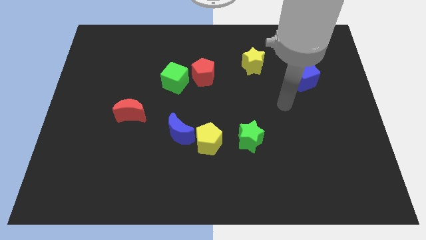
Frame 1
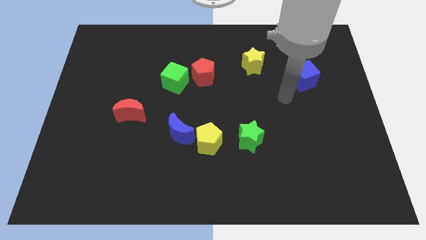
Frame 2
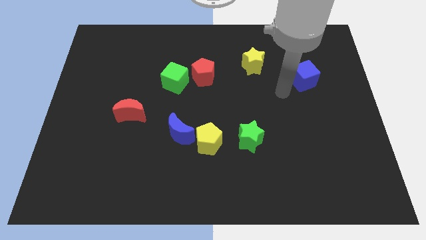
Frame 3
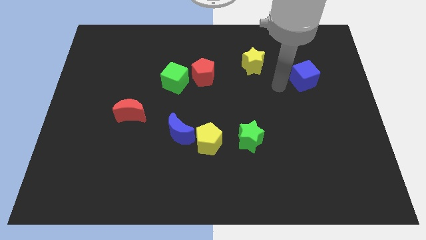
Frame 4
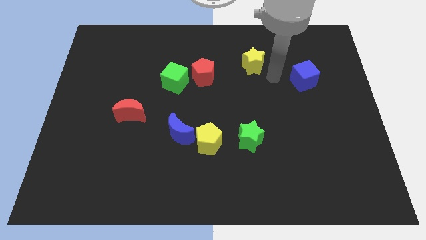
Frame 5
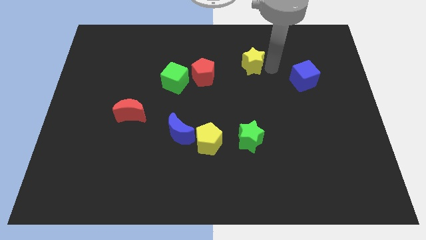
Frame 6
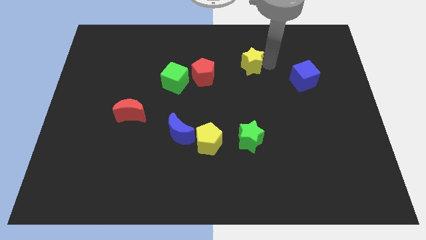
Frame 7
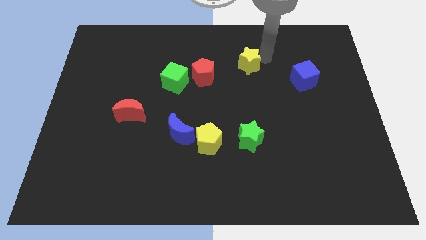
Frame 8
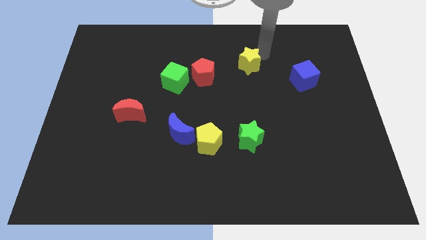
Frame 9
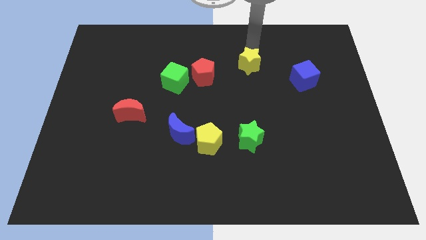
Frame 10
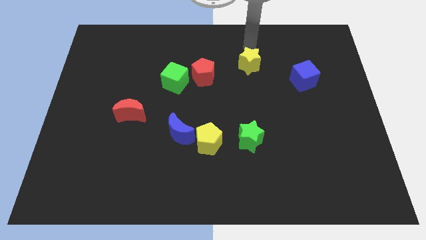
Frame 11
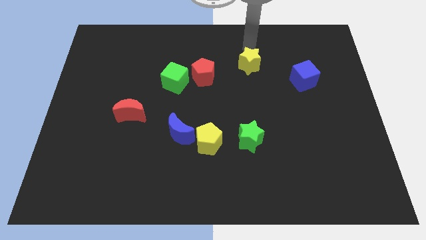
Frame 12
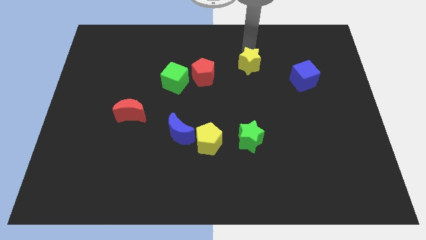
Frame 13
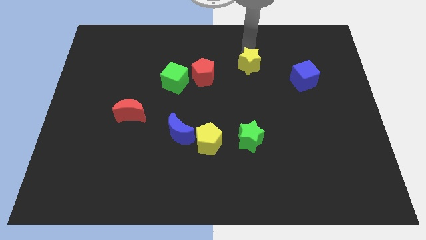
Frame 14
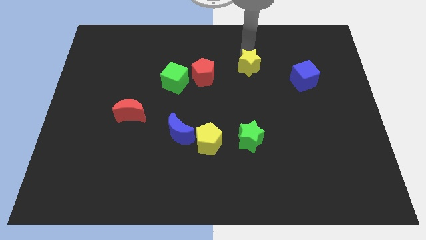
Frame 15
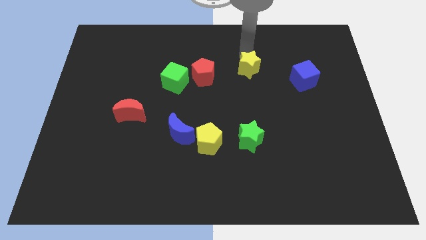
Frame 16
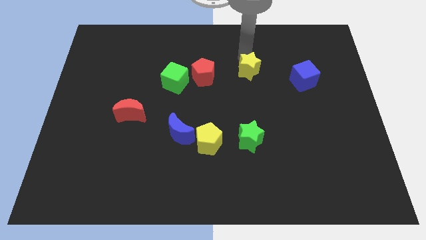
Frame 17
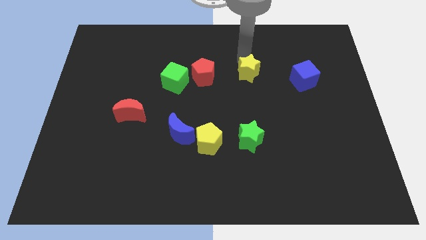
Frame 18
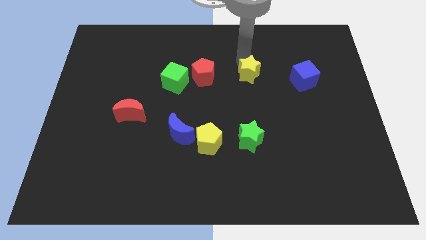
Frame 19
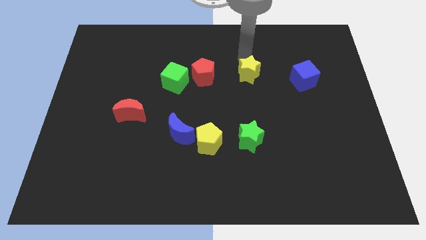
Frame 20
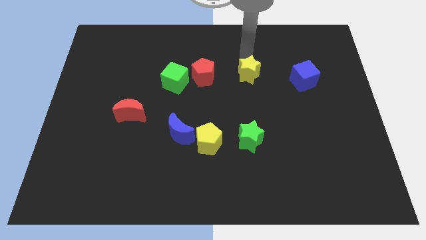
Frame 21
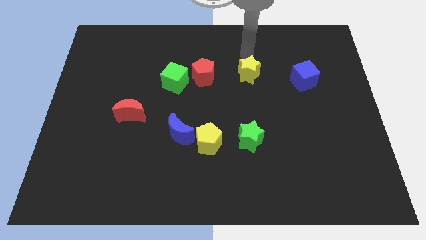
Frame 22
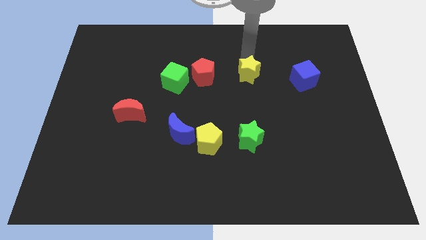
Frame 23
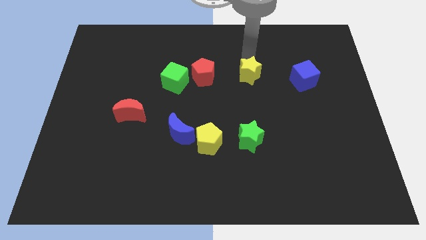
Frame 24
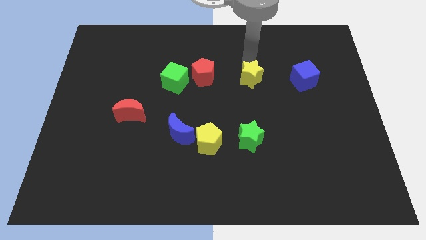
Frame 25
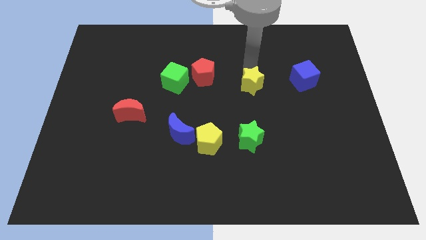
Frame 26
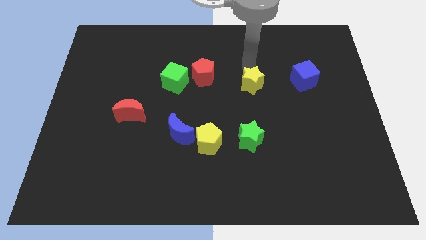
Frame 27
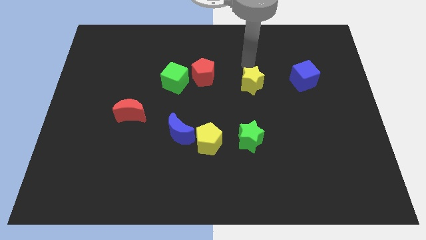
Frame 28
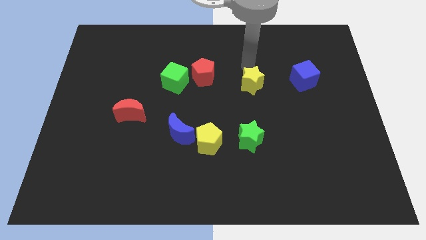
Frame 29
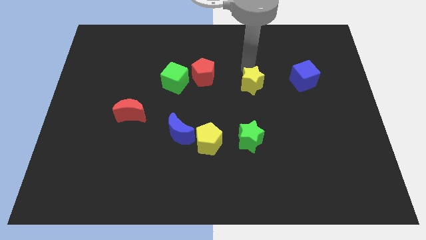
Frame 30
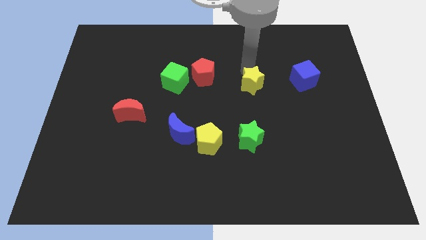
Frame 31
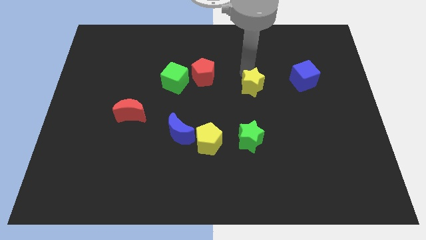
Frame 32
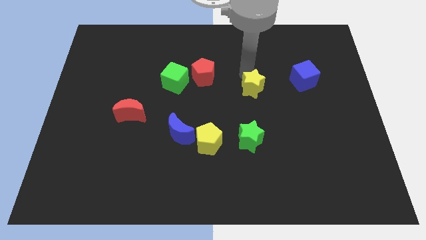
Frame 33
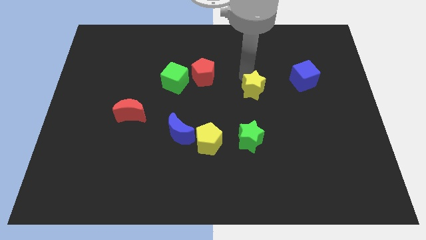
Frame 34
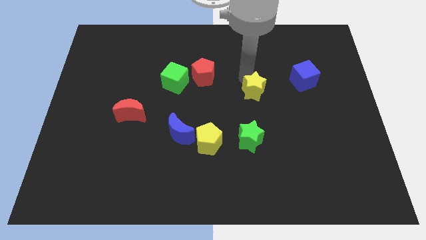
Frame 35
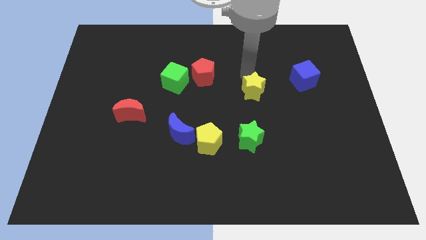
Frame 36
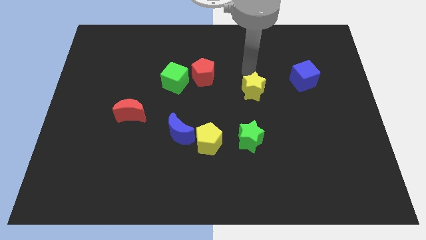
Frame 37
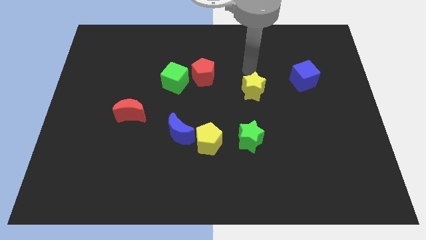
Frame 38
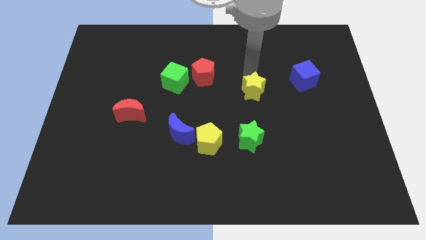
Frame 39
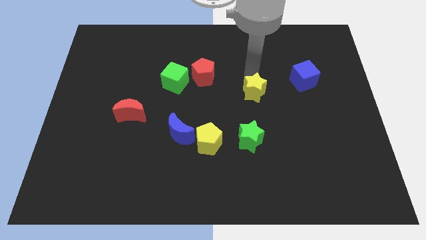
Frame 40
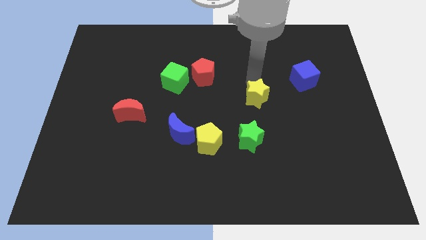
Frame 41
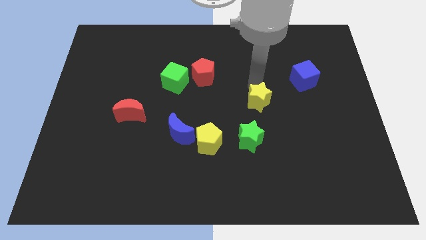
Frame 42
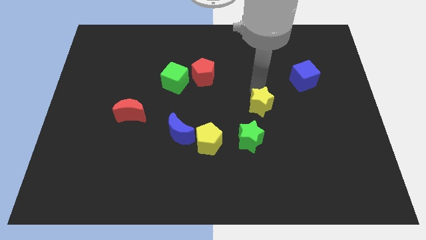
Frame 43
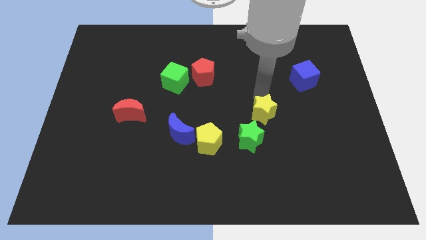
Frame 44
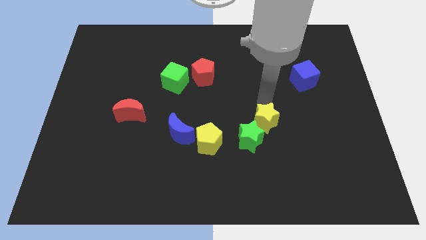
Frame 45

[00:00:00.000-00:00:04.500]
slide the yellow star close to the green star

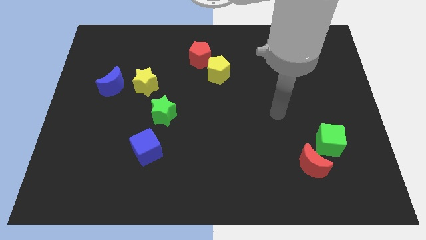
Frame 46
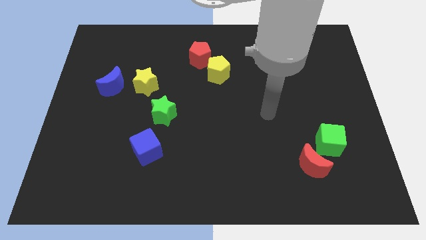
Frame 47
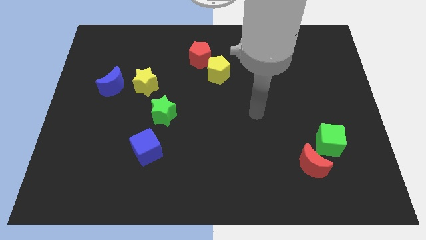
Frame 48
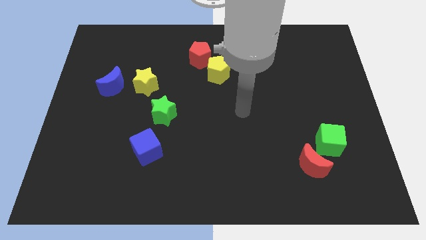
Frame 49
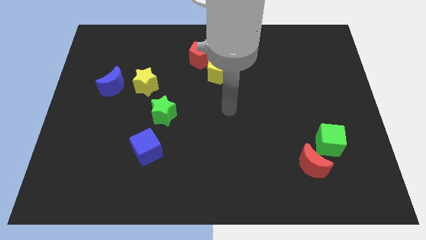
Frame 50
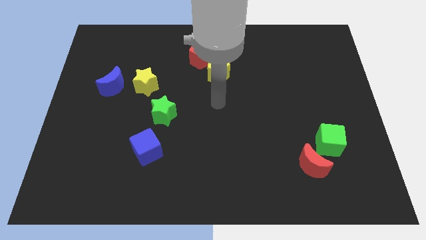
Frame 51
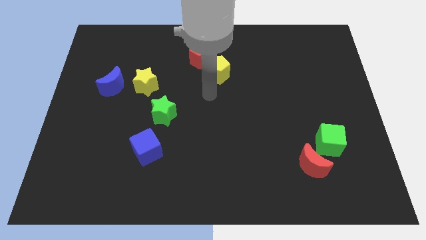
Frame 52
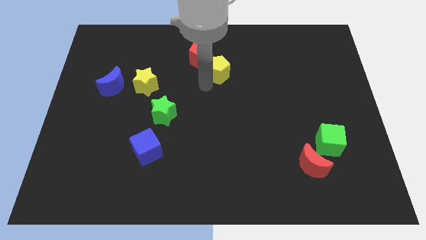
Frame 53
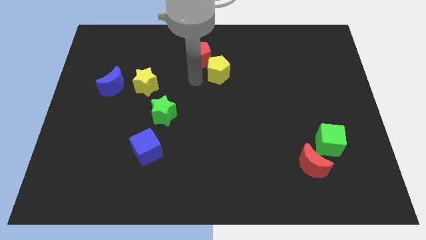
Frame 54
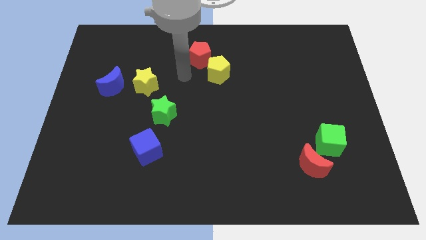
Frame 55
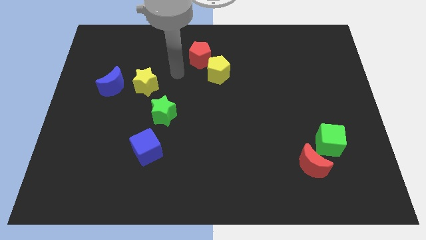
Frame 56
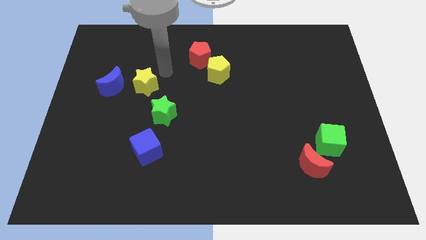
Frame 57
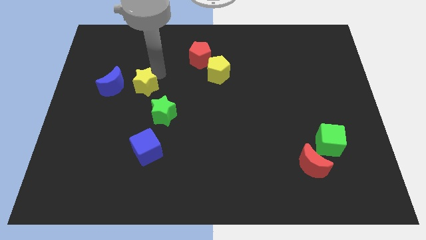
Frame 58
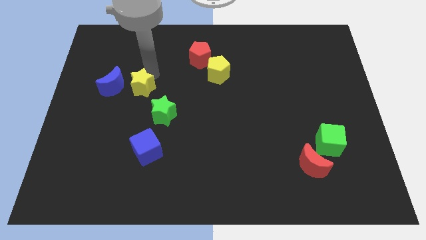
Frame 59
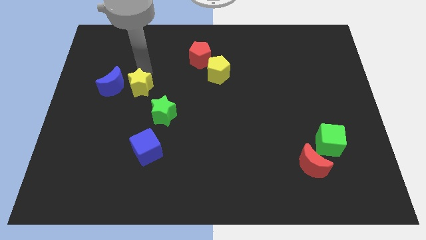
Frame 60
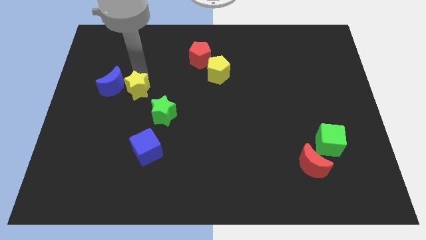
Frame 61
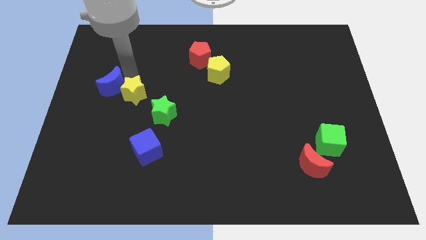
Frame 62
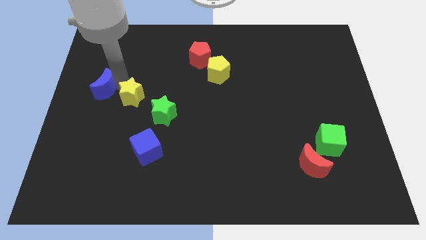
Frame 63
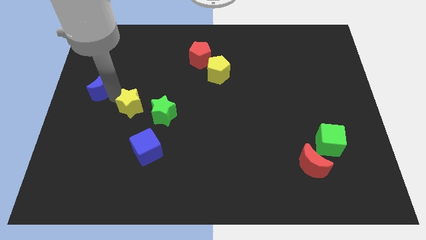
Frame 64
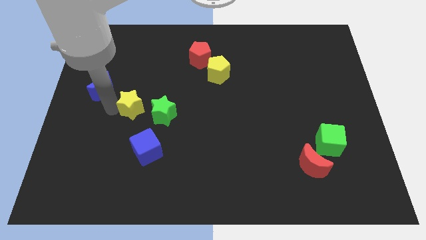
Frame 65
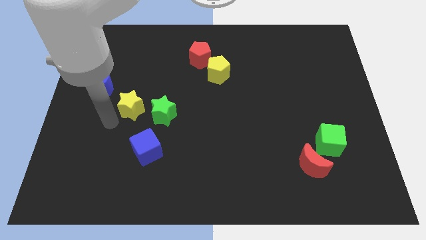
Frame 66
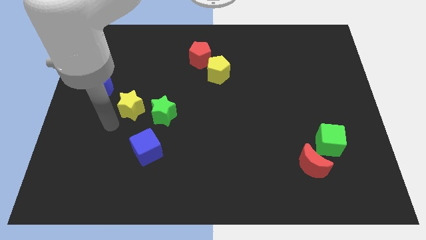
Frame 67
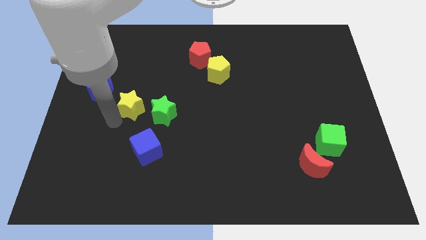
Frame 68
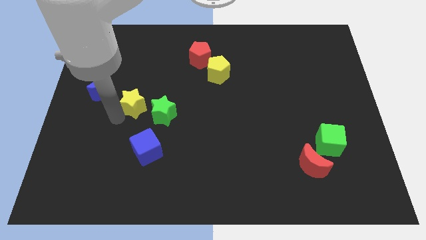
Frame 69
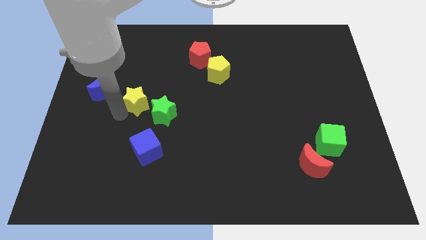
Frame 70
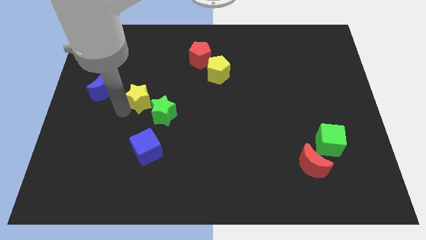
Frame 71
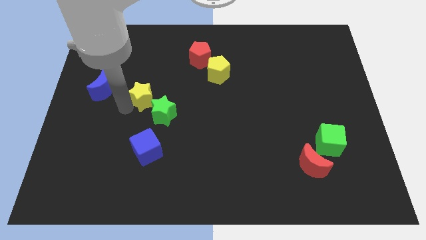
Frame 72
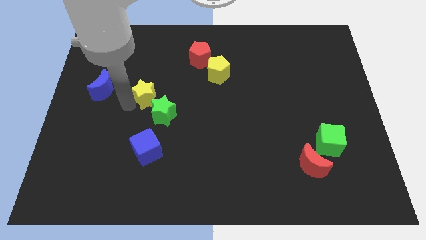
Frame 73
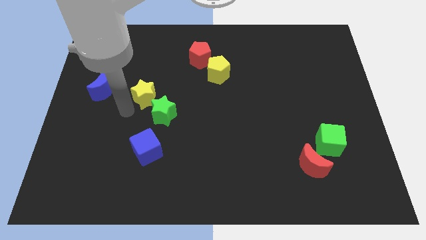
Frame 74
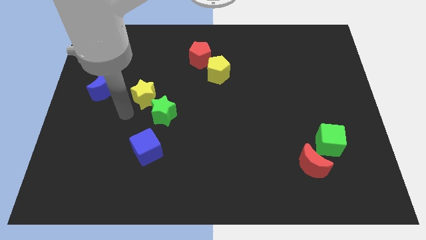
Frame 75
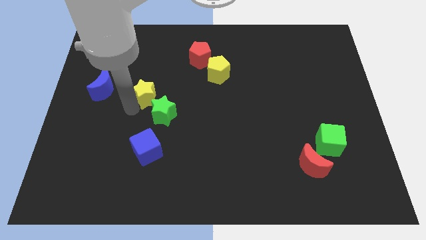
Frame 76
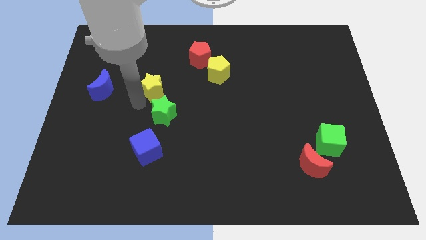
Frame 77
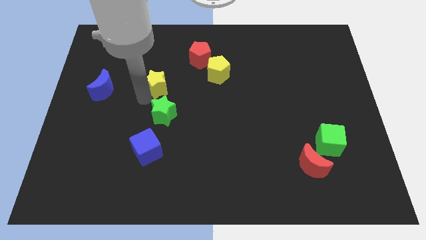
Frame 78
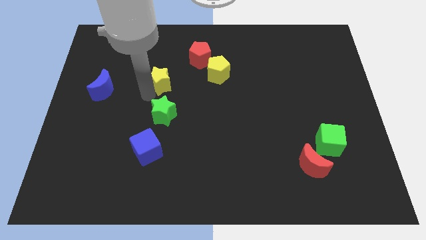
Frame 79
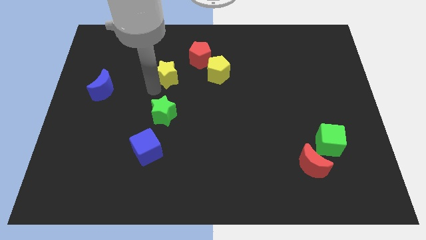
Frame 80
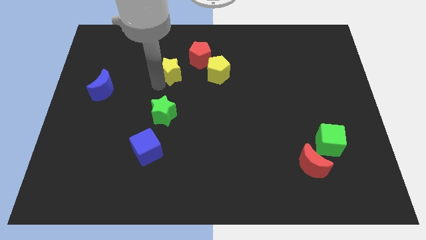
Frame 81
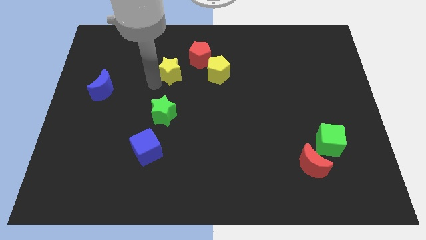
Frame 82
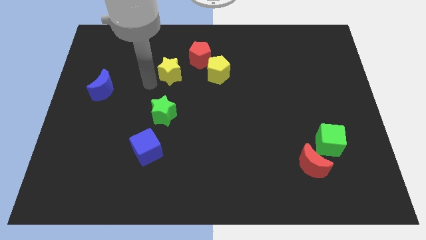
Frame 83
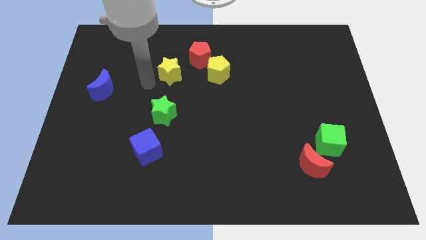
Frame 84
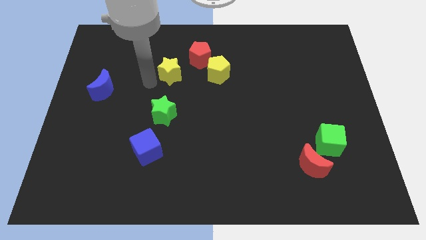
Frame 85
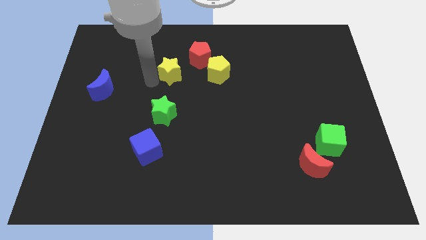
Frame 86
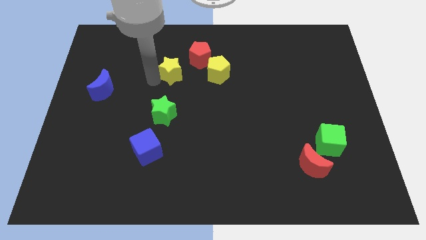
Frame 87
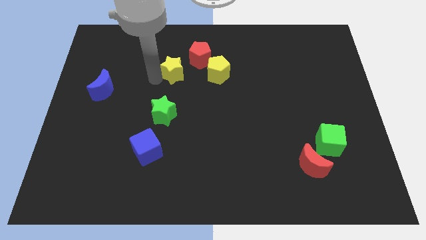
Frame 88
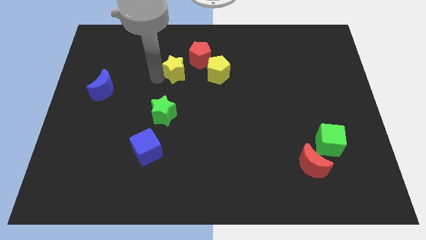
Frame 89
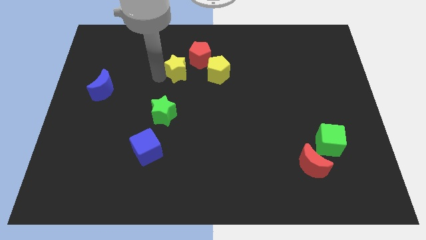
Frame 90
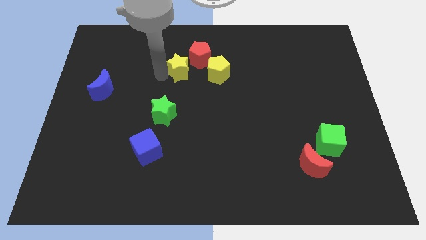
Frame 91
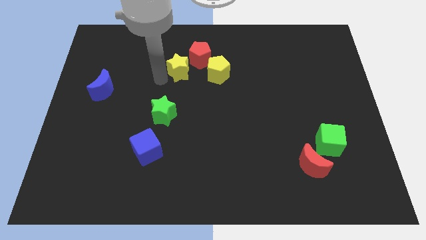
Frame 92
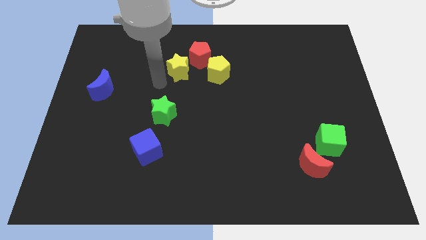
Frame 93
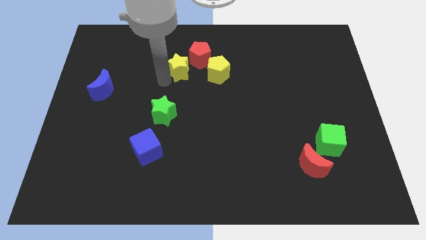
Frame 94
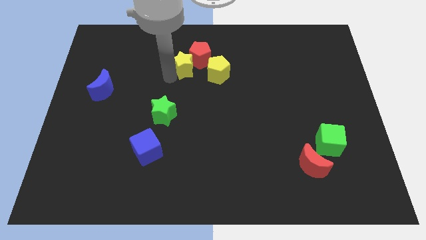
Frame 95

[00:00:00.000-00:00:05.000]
move the yellow star close to the red pentagon
